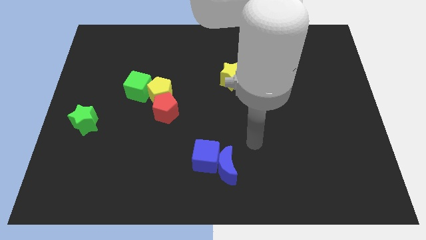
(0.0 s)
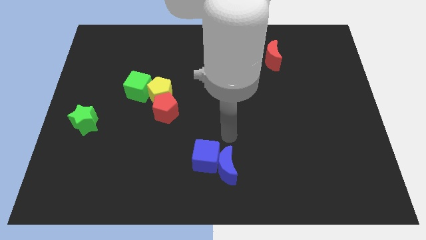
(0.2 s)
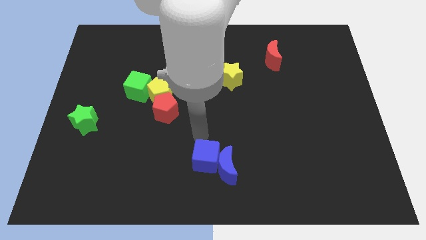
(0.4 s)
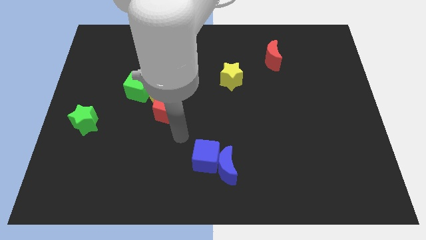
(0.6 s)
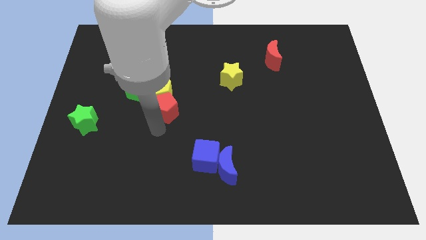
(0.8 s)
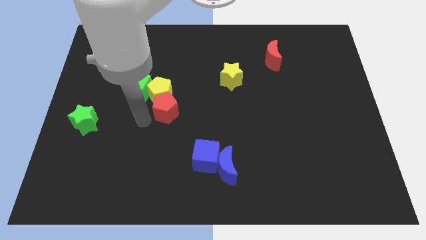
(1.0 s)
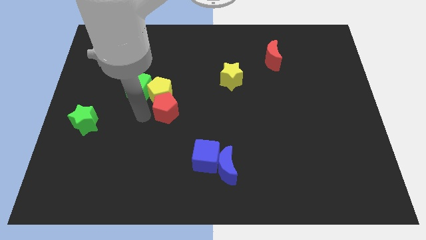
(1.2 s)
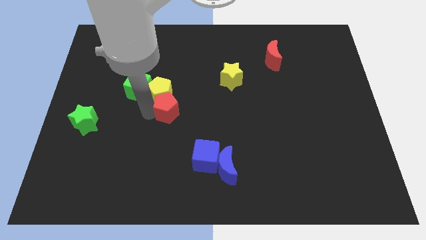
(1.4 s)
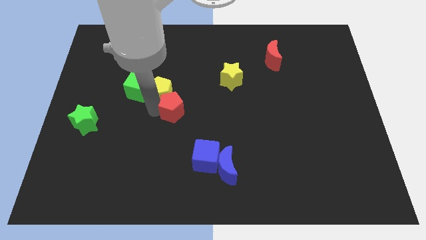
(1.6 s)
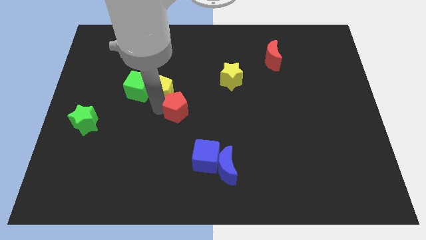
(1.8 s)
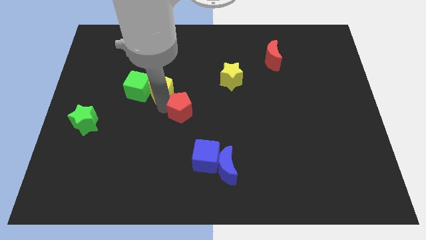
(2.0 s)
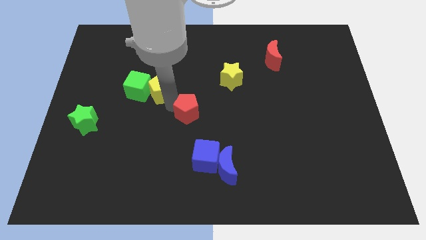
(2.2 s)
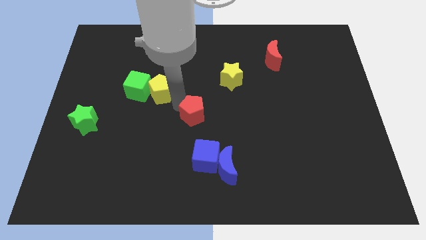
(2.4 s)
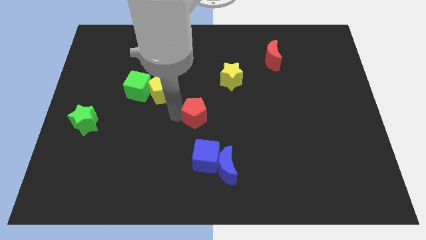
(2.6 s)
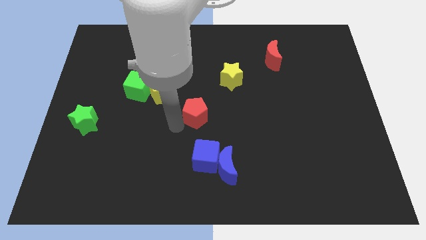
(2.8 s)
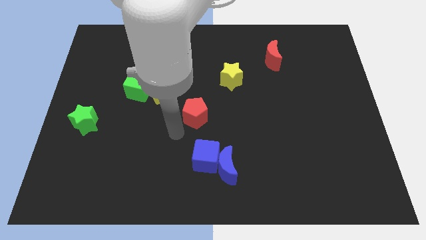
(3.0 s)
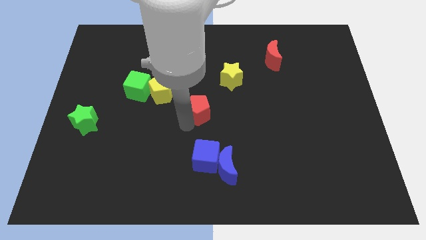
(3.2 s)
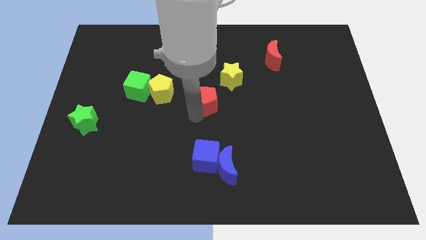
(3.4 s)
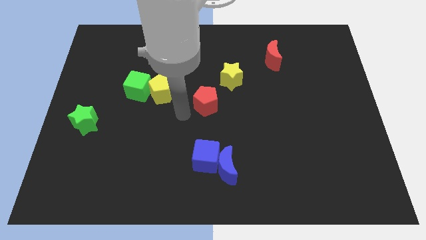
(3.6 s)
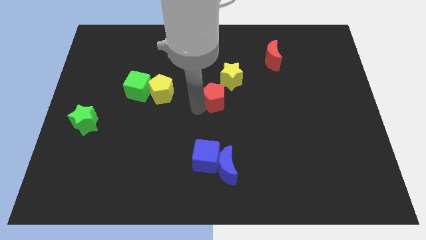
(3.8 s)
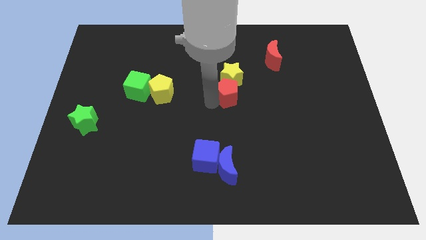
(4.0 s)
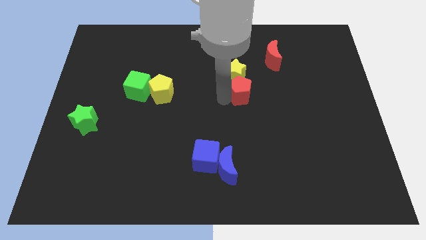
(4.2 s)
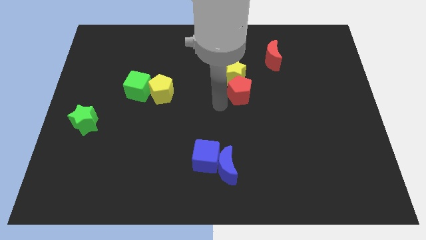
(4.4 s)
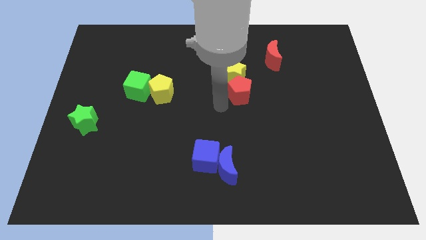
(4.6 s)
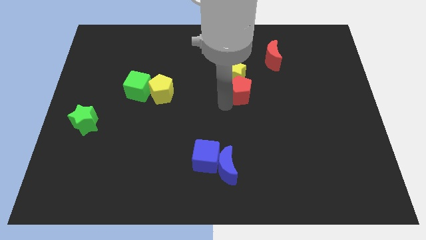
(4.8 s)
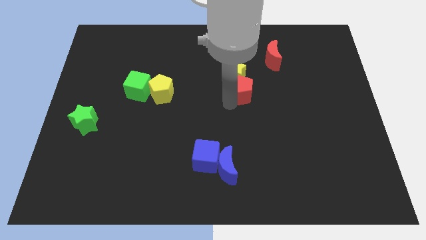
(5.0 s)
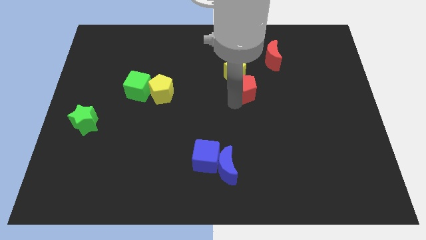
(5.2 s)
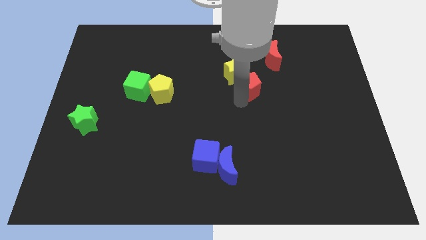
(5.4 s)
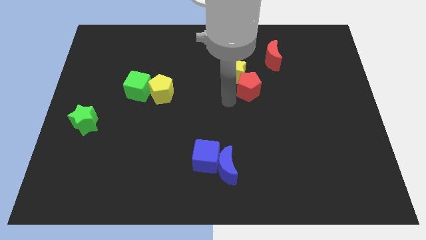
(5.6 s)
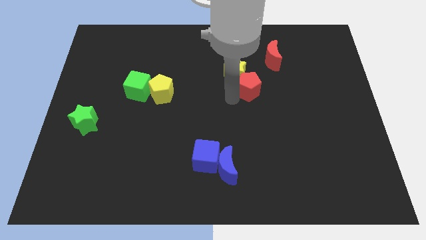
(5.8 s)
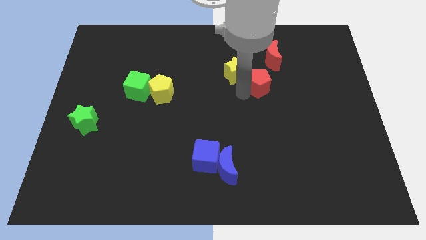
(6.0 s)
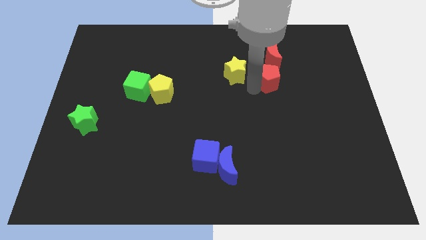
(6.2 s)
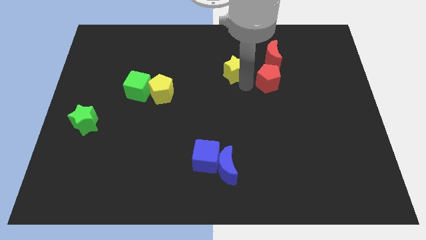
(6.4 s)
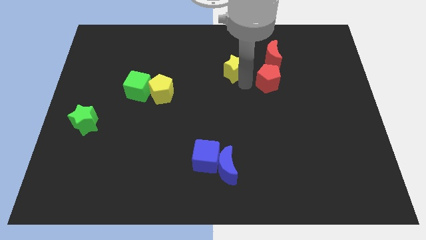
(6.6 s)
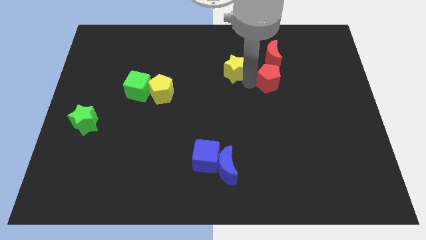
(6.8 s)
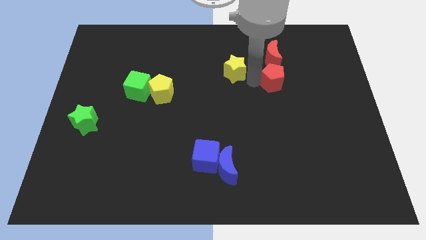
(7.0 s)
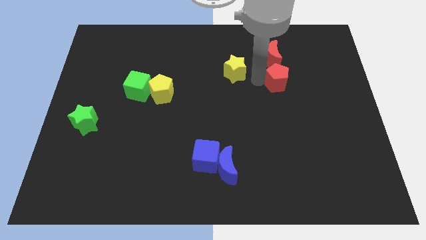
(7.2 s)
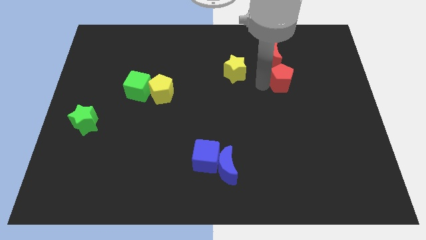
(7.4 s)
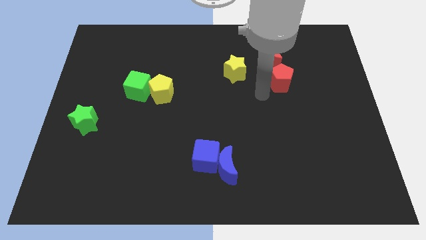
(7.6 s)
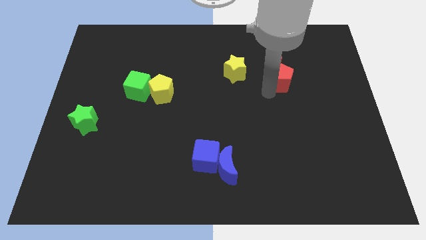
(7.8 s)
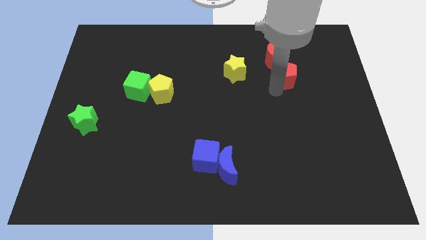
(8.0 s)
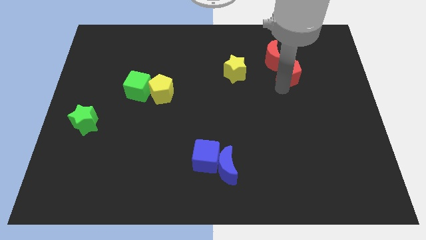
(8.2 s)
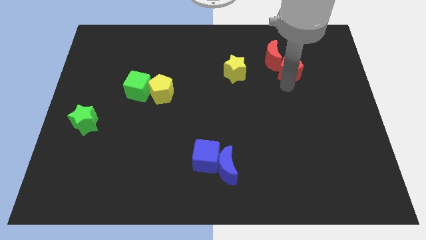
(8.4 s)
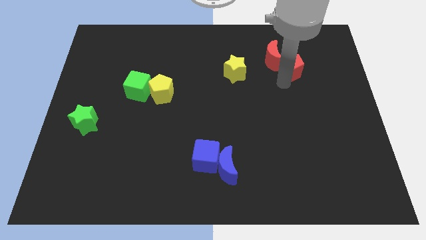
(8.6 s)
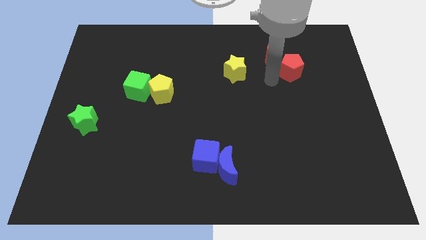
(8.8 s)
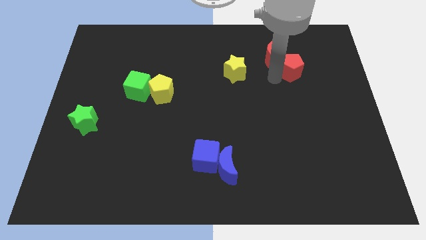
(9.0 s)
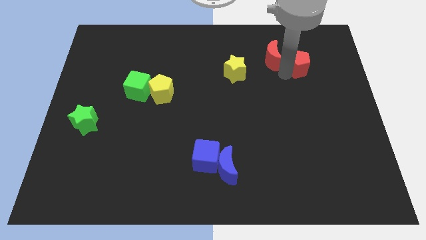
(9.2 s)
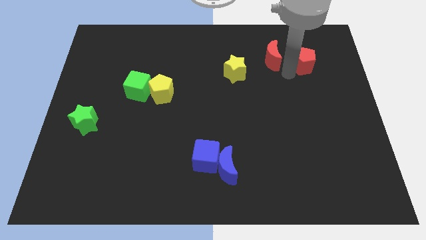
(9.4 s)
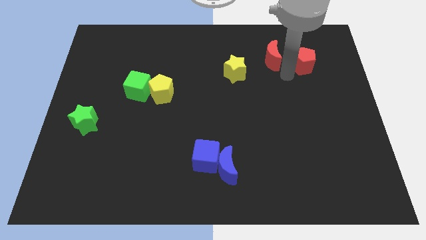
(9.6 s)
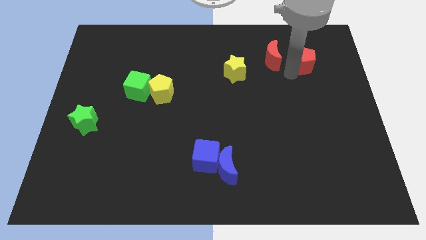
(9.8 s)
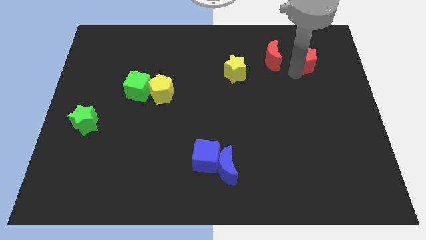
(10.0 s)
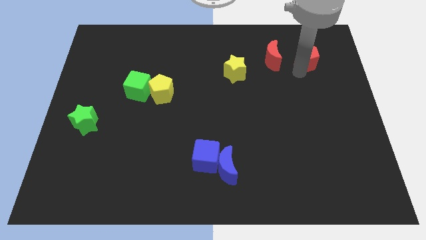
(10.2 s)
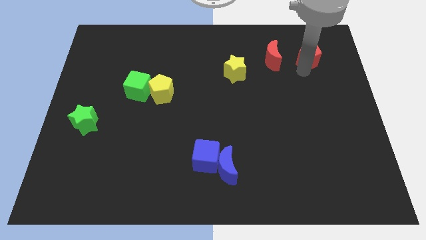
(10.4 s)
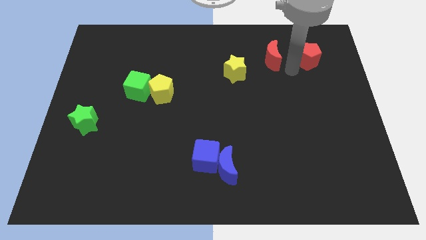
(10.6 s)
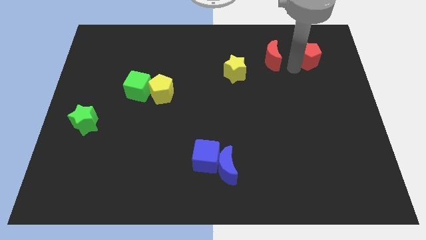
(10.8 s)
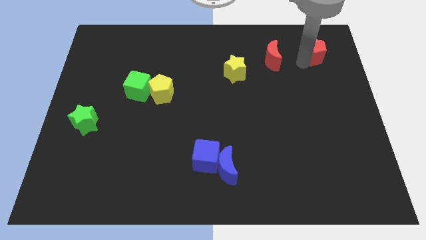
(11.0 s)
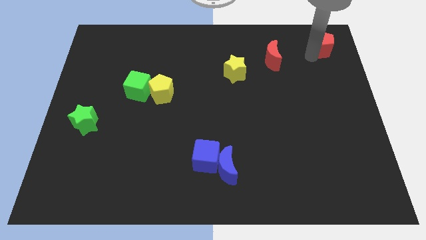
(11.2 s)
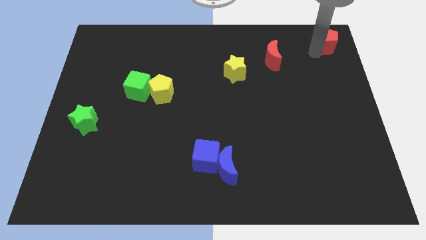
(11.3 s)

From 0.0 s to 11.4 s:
push the red pentagon to the top right
